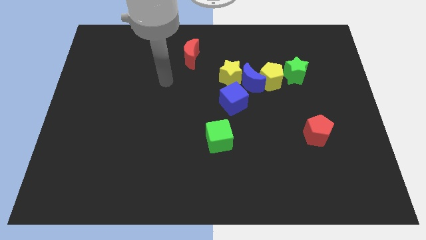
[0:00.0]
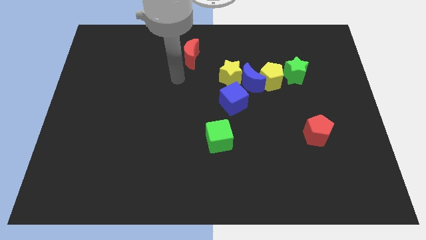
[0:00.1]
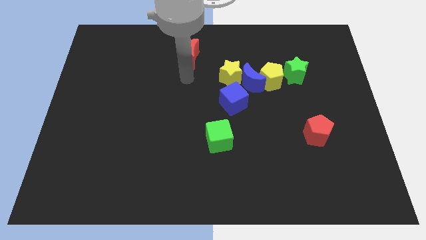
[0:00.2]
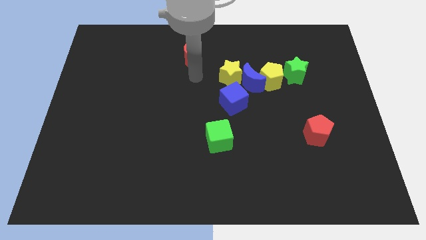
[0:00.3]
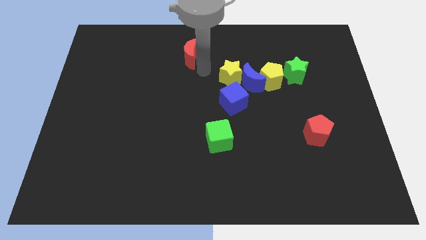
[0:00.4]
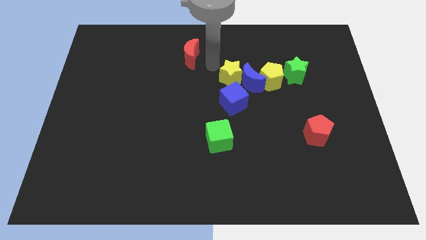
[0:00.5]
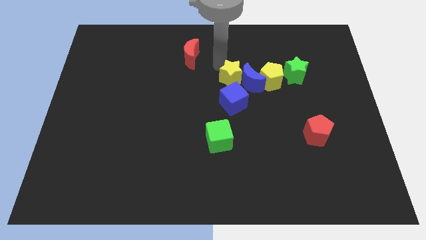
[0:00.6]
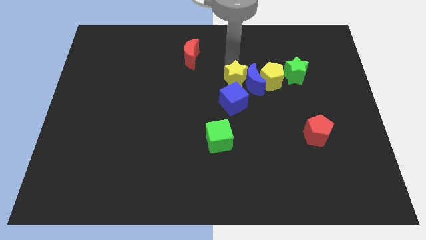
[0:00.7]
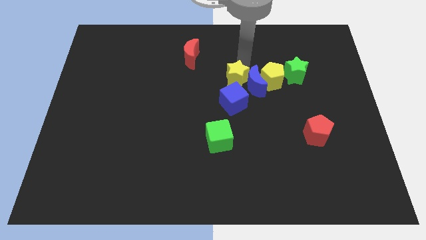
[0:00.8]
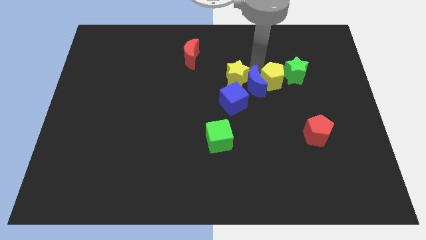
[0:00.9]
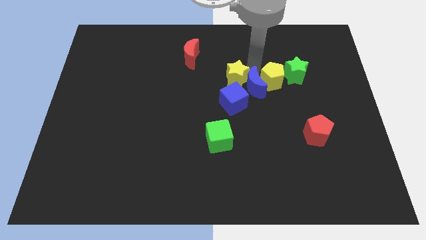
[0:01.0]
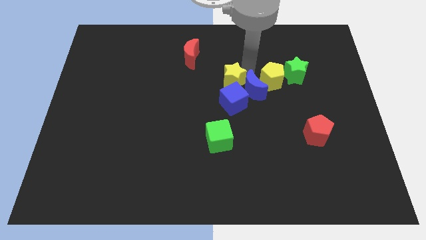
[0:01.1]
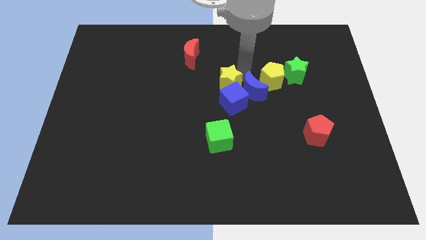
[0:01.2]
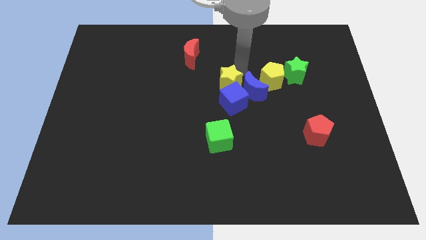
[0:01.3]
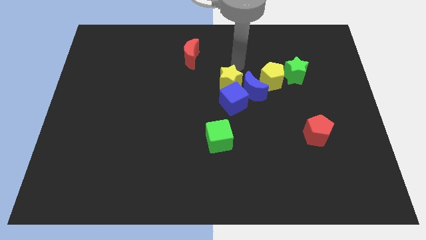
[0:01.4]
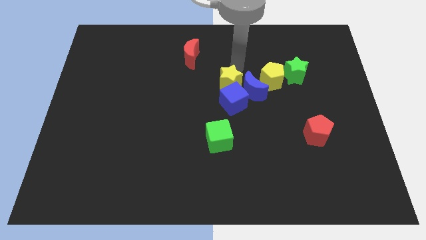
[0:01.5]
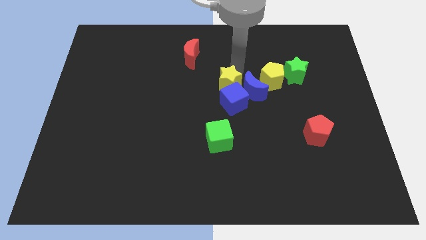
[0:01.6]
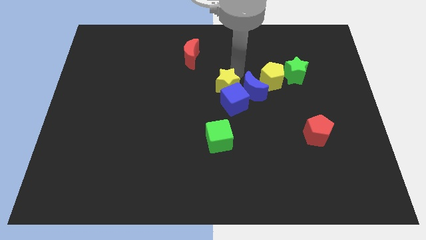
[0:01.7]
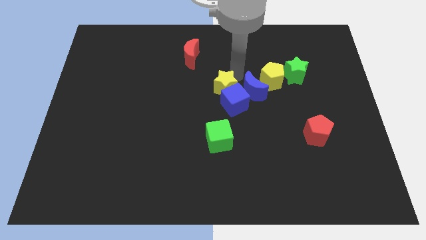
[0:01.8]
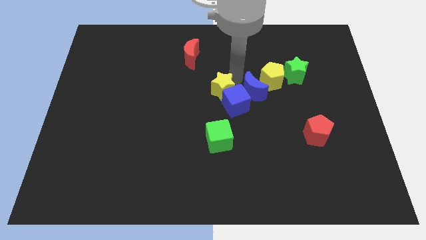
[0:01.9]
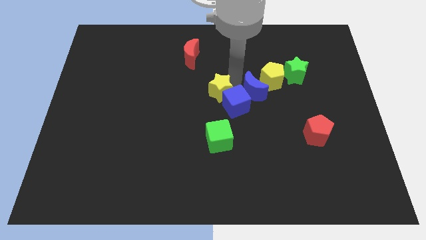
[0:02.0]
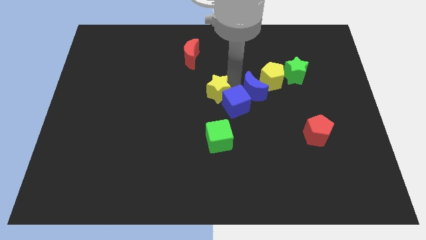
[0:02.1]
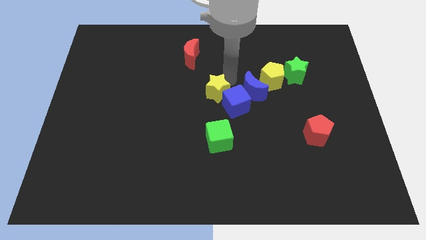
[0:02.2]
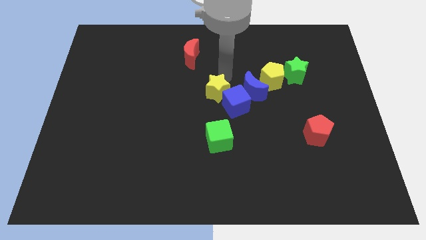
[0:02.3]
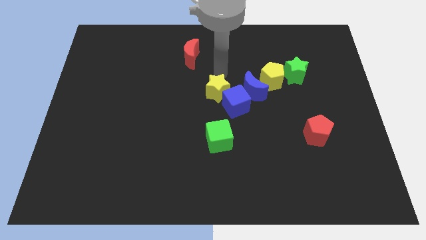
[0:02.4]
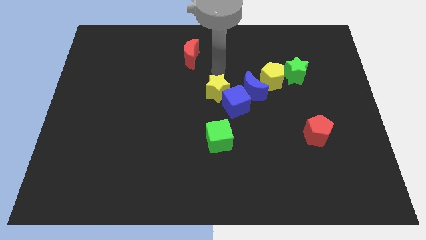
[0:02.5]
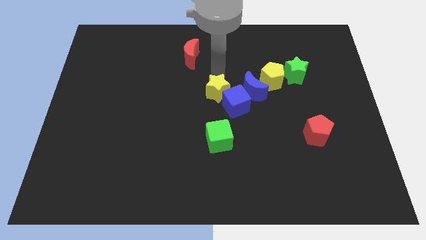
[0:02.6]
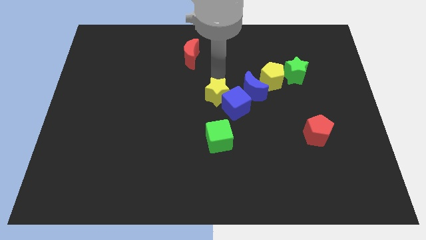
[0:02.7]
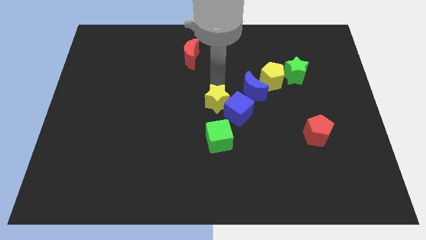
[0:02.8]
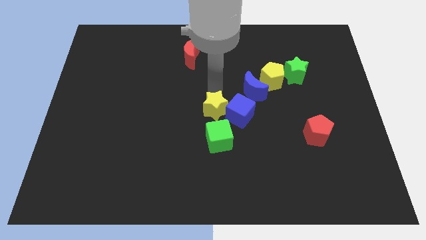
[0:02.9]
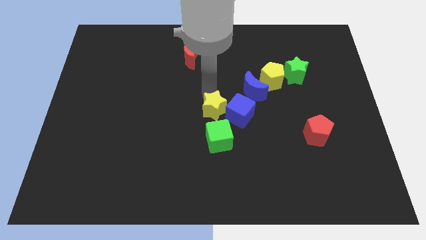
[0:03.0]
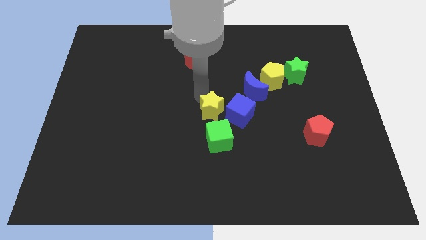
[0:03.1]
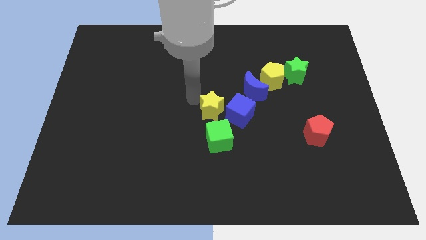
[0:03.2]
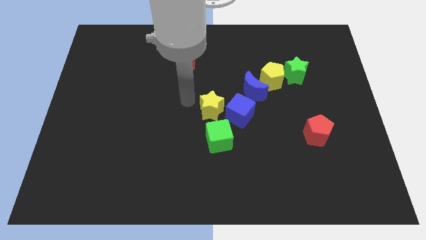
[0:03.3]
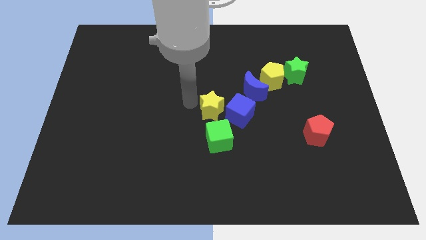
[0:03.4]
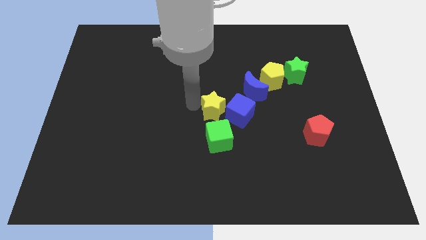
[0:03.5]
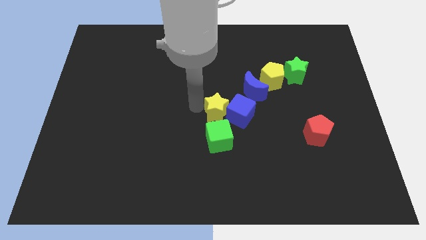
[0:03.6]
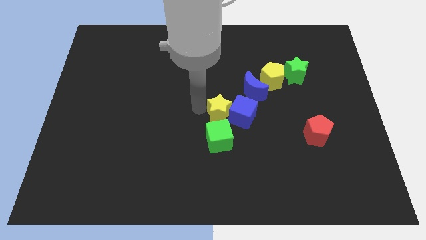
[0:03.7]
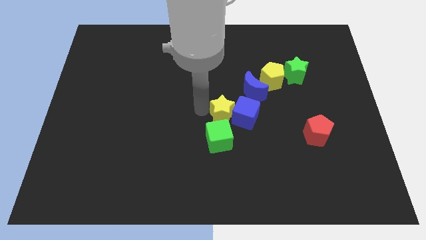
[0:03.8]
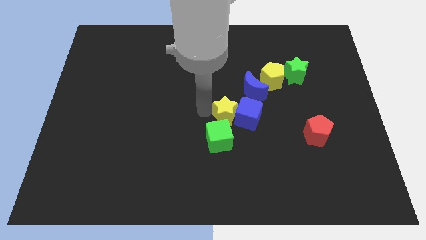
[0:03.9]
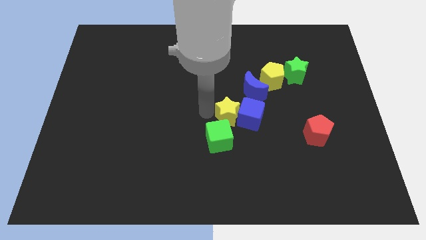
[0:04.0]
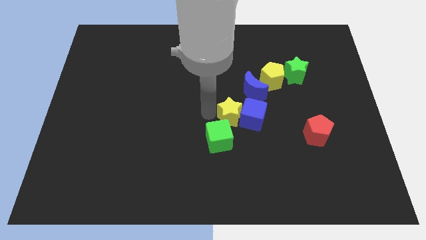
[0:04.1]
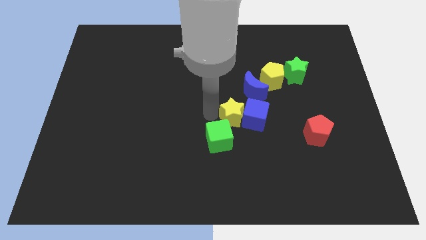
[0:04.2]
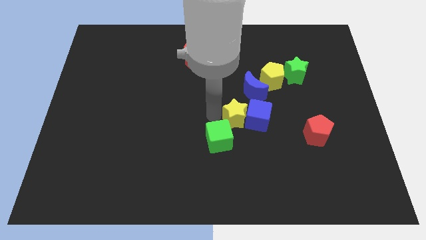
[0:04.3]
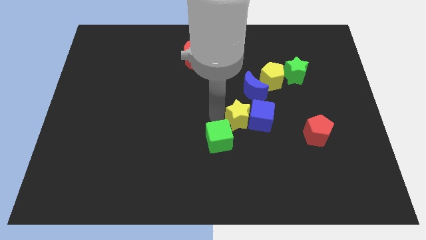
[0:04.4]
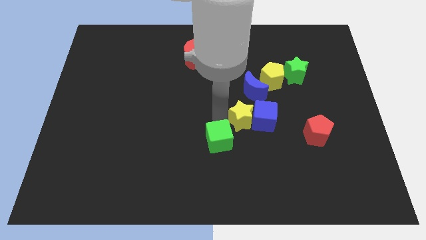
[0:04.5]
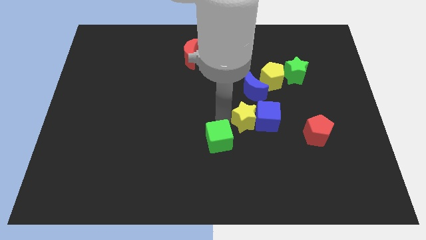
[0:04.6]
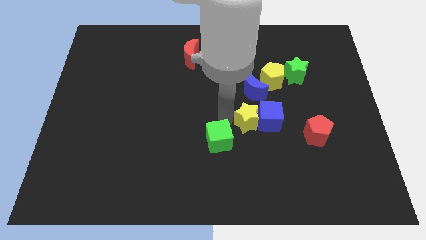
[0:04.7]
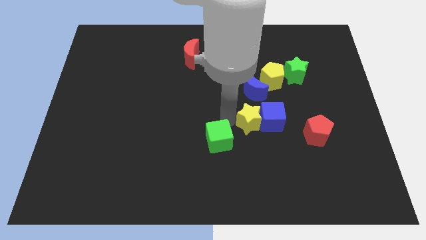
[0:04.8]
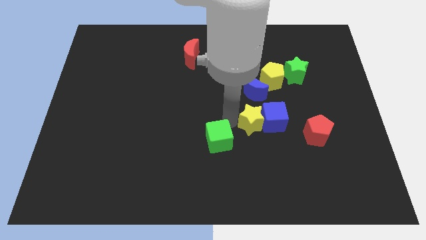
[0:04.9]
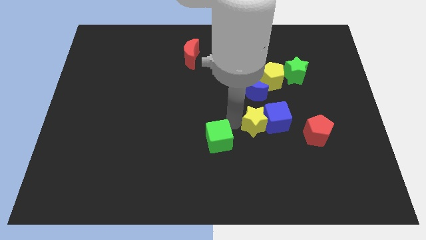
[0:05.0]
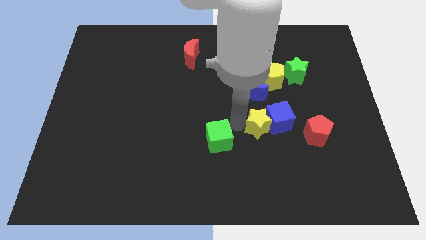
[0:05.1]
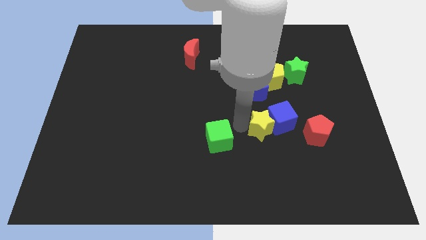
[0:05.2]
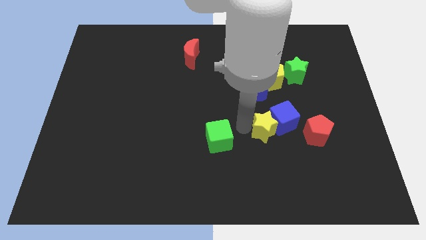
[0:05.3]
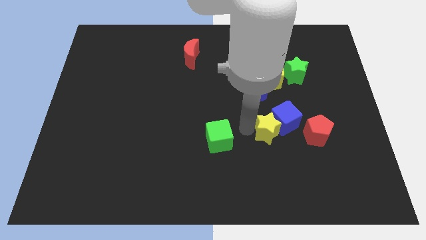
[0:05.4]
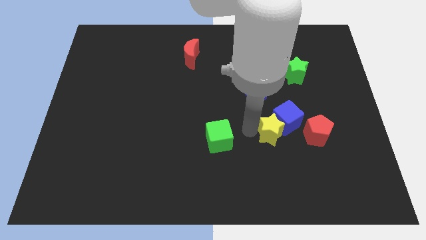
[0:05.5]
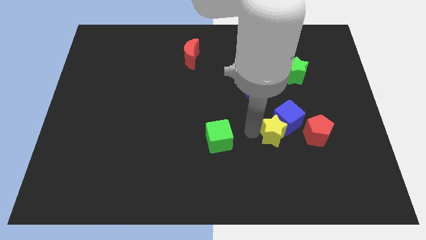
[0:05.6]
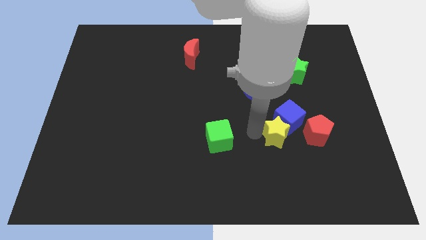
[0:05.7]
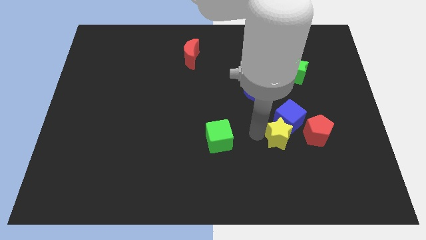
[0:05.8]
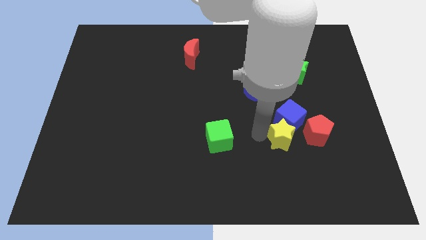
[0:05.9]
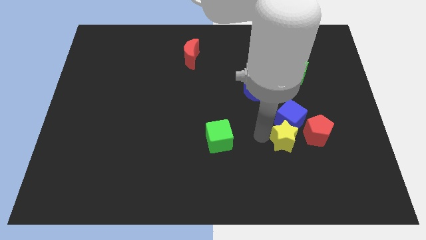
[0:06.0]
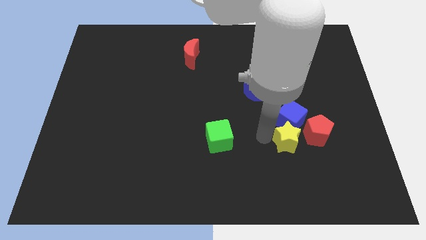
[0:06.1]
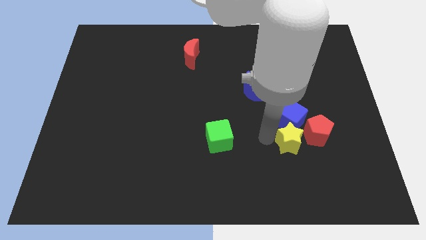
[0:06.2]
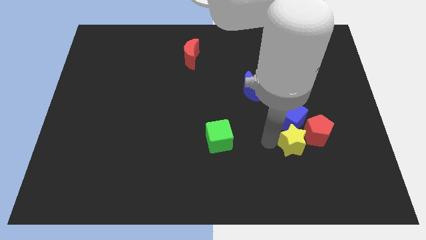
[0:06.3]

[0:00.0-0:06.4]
move the yellow star towards the red pentagon

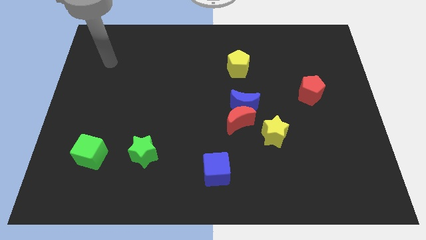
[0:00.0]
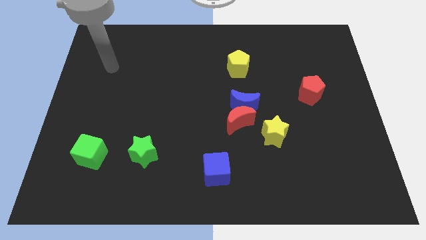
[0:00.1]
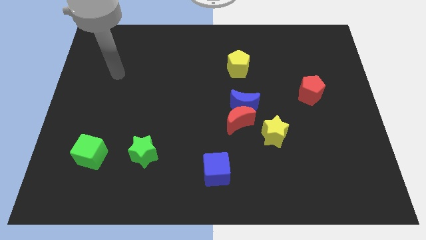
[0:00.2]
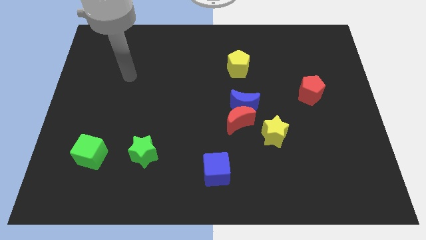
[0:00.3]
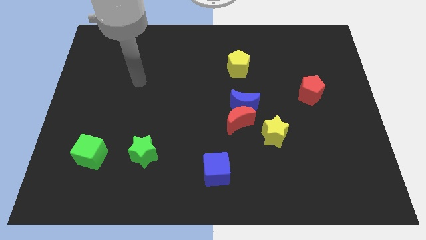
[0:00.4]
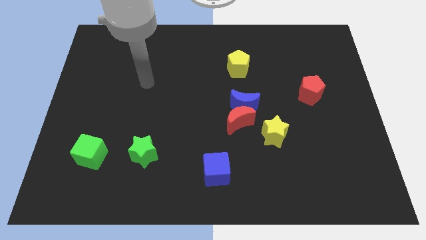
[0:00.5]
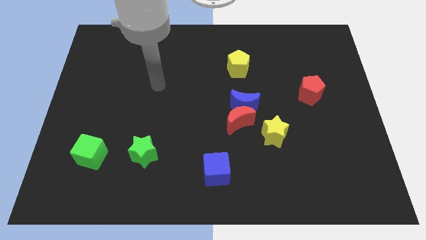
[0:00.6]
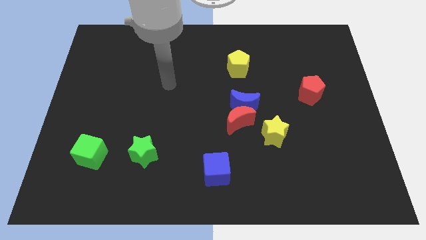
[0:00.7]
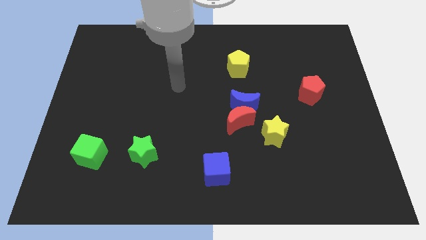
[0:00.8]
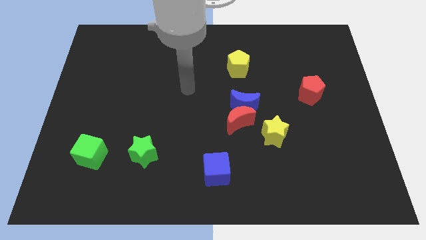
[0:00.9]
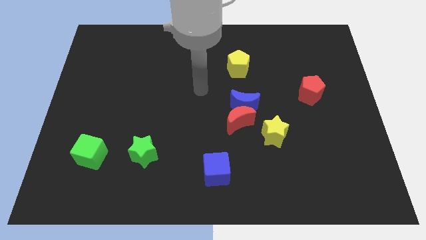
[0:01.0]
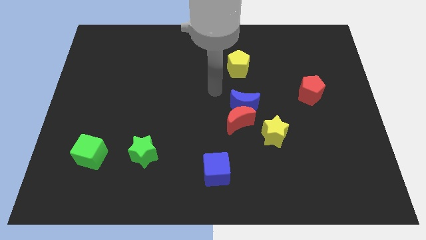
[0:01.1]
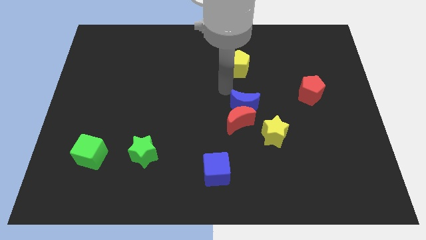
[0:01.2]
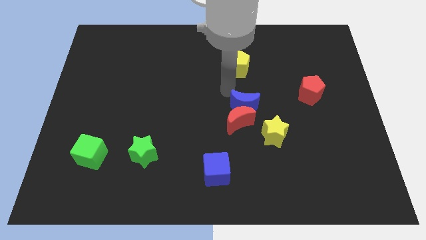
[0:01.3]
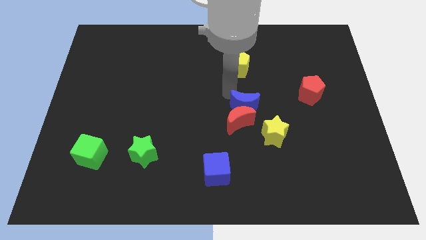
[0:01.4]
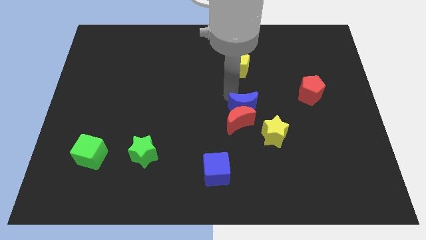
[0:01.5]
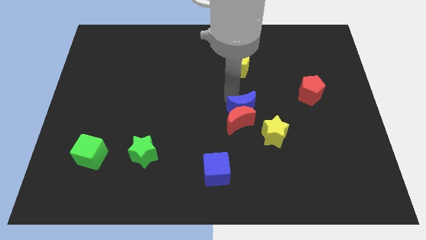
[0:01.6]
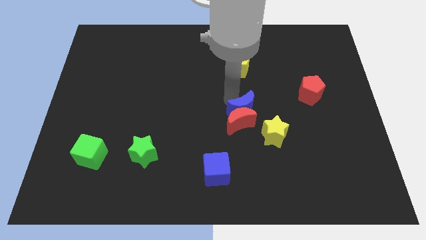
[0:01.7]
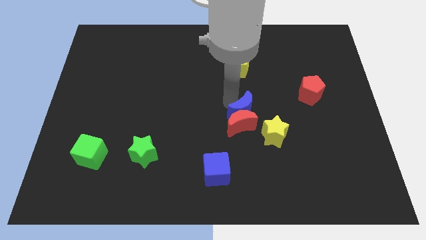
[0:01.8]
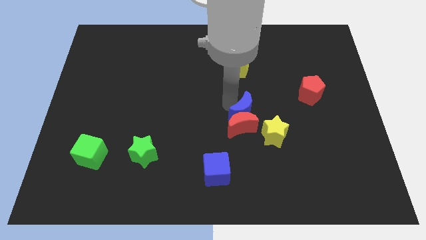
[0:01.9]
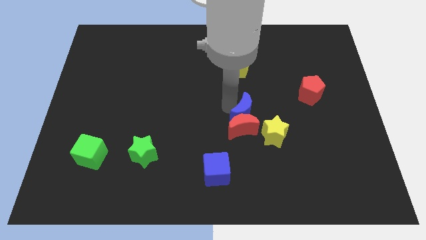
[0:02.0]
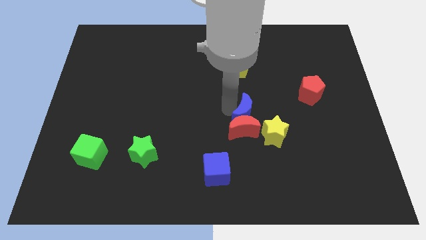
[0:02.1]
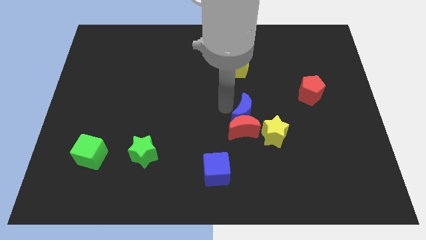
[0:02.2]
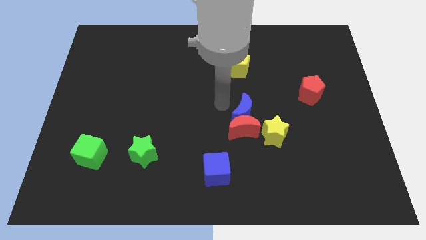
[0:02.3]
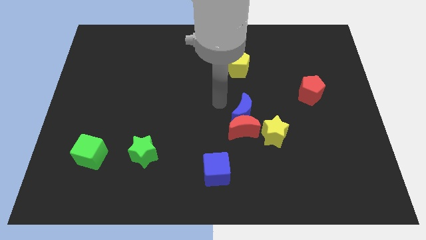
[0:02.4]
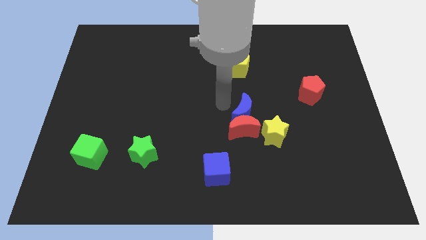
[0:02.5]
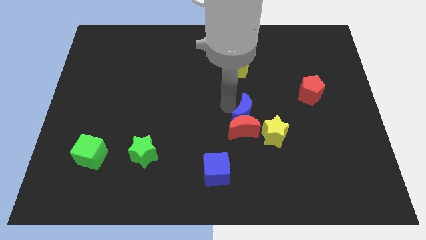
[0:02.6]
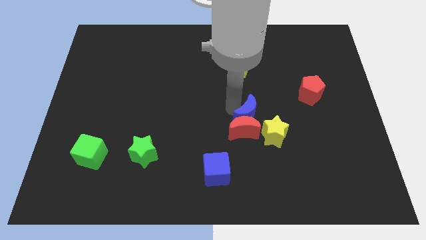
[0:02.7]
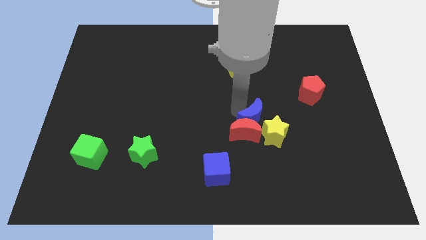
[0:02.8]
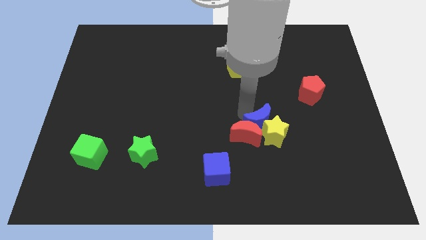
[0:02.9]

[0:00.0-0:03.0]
slide the blue moon next to the yellow star
